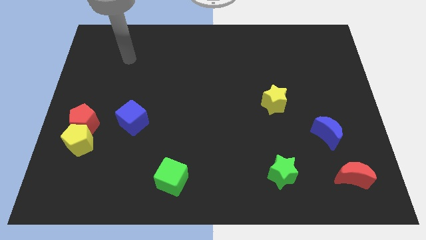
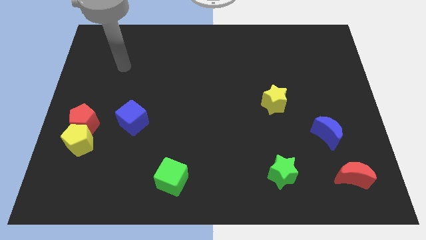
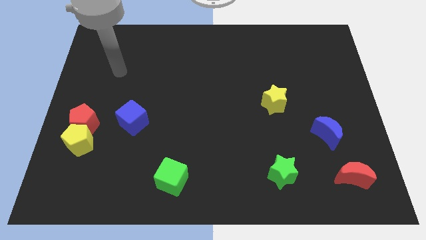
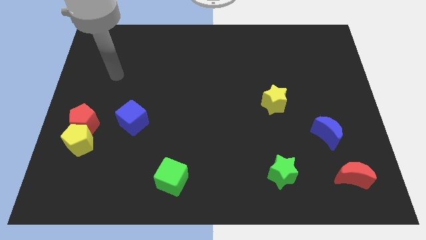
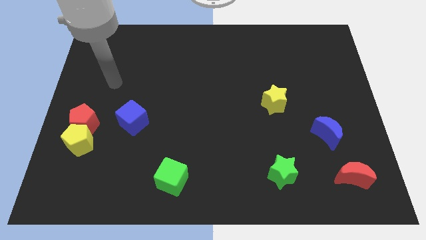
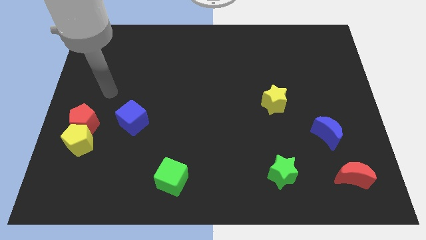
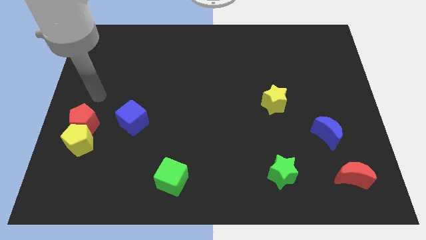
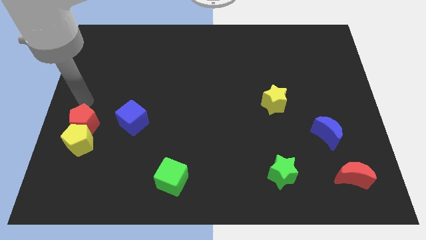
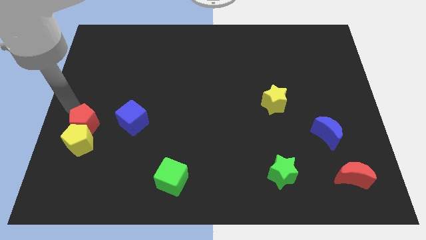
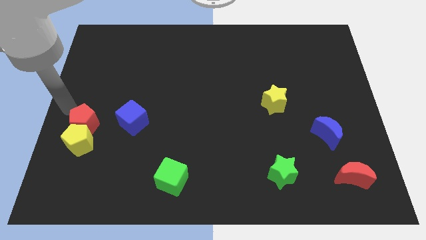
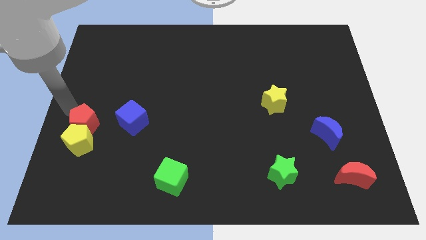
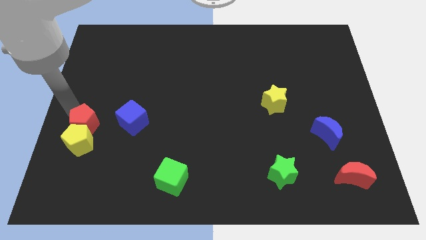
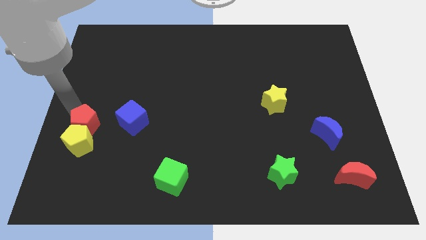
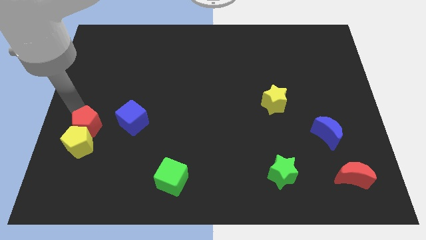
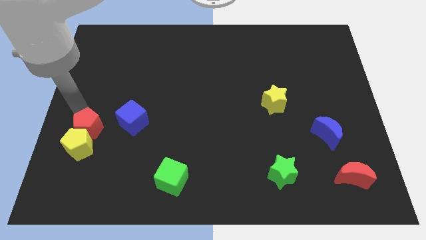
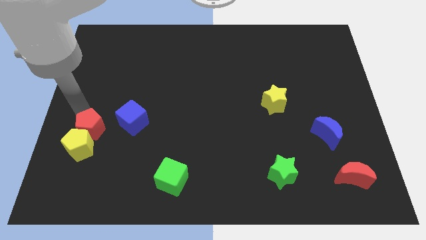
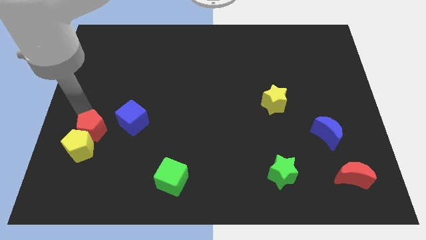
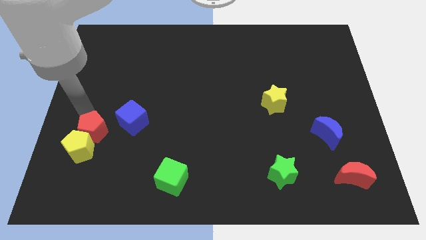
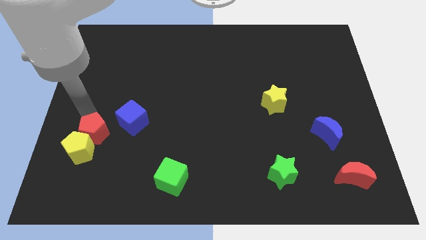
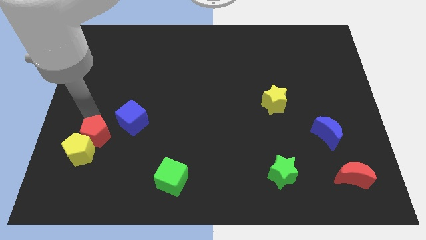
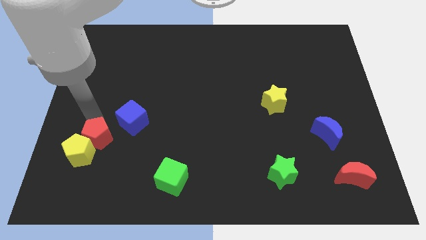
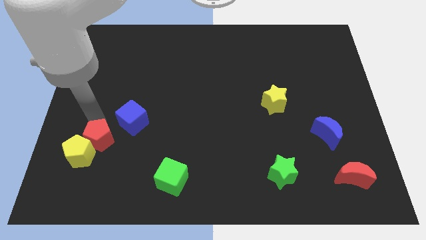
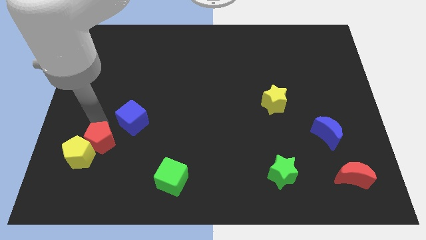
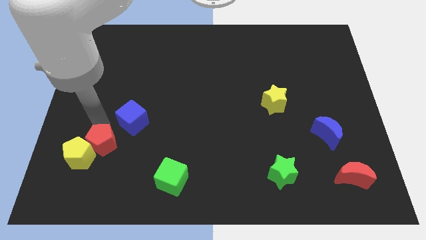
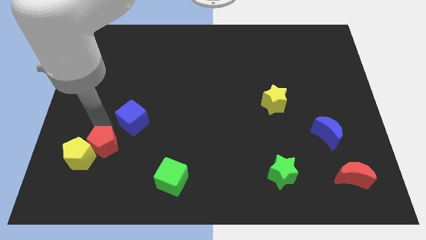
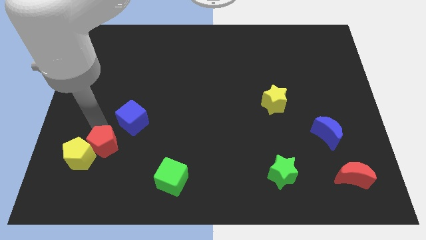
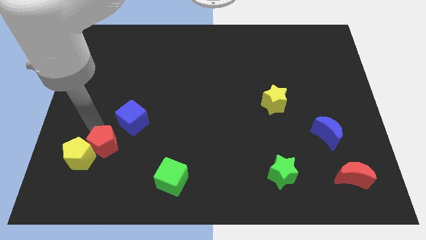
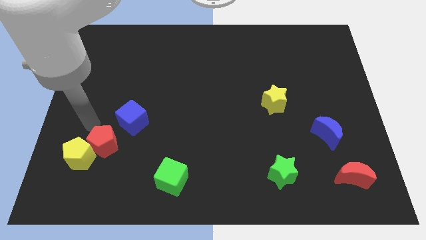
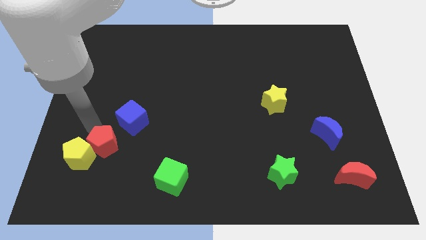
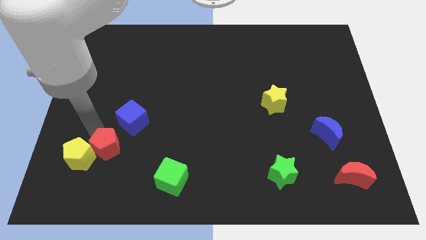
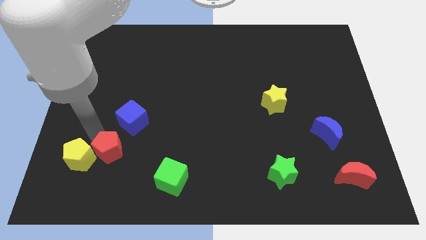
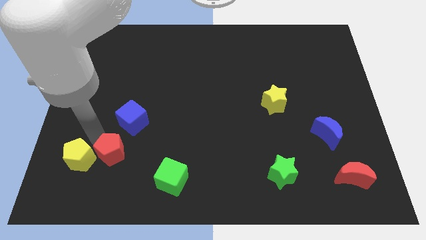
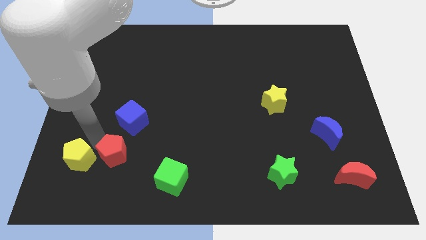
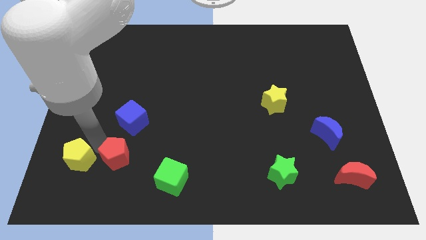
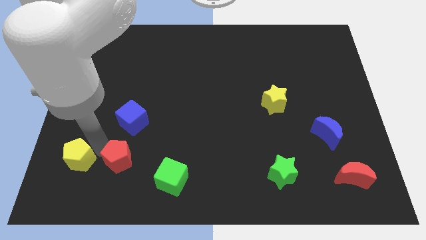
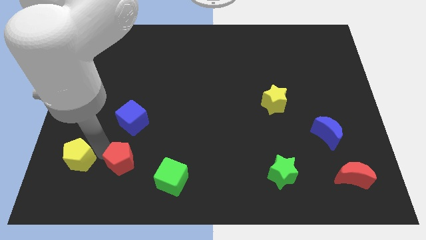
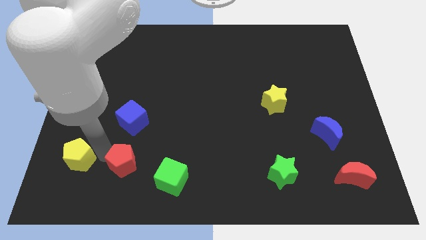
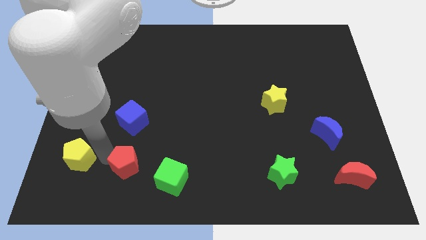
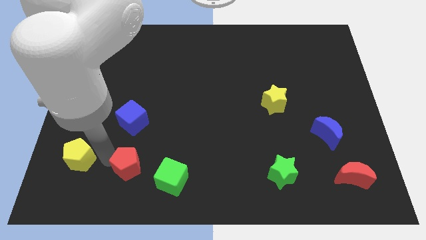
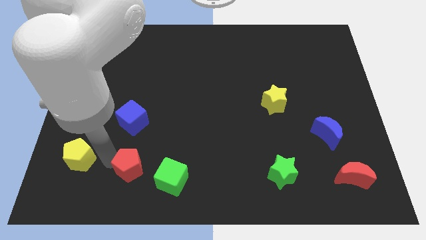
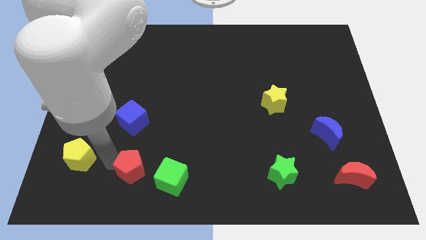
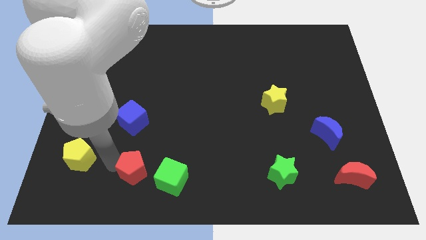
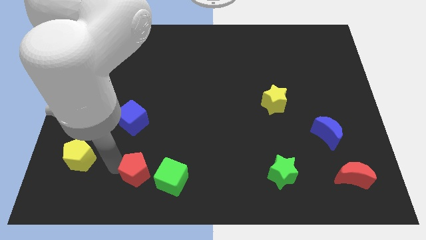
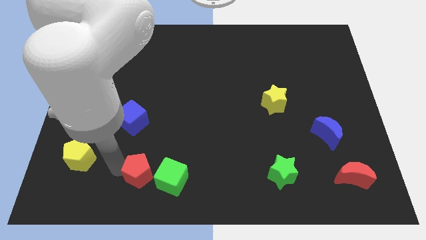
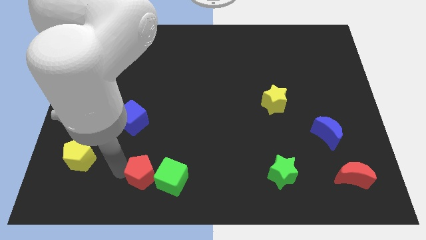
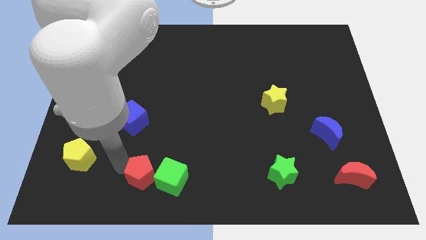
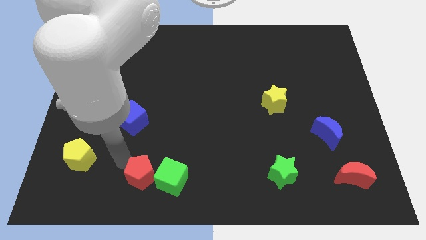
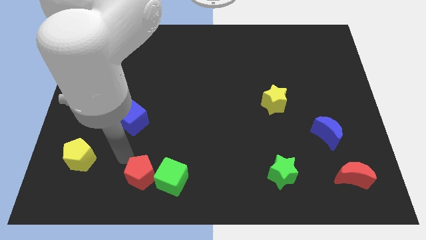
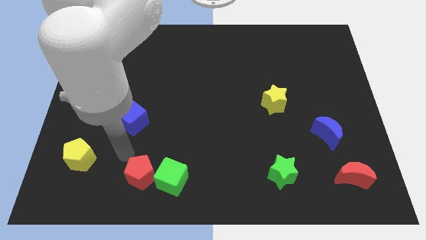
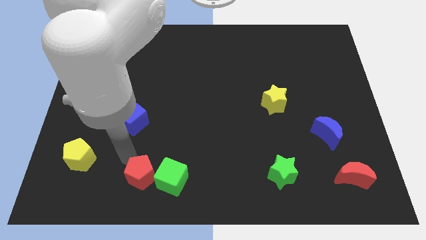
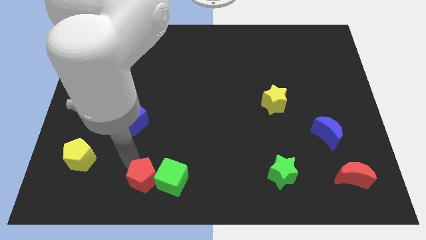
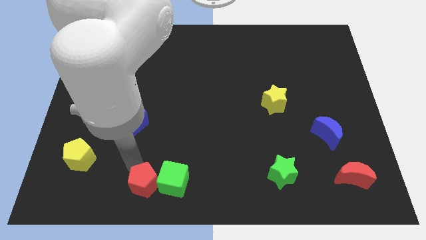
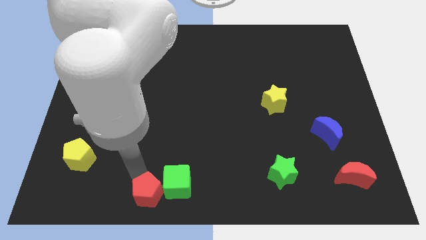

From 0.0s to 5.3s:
move the red pentagon to the bottom
